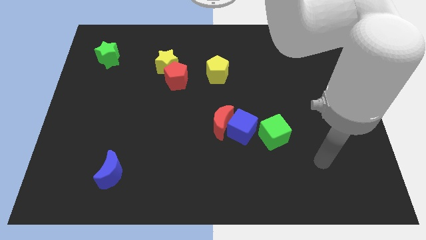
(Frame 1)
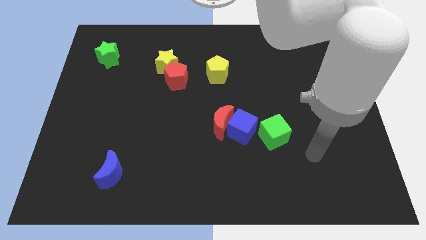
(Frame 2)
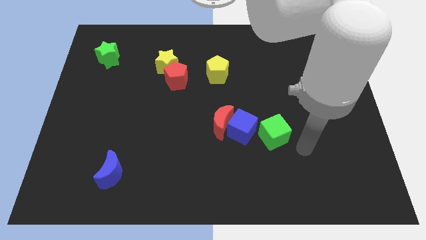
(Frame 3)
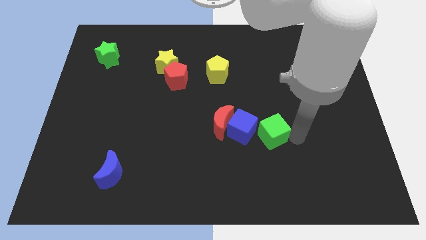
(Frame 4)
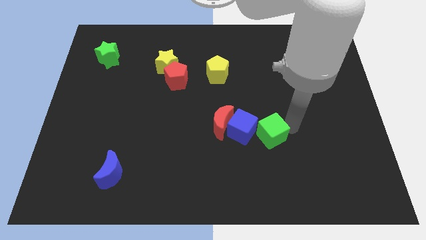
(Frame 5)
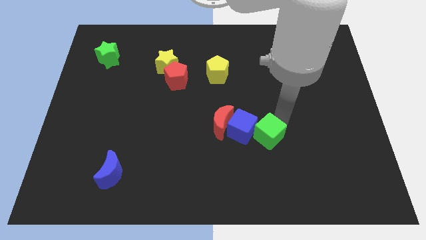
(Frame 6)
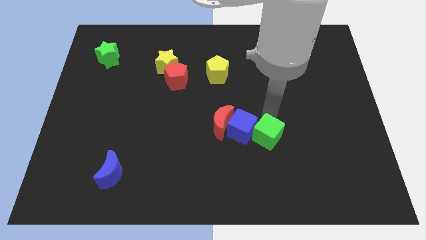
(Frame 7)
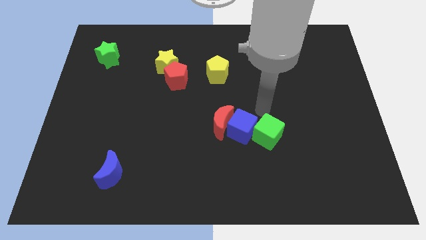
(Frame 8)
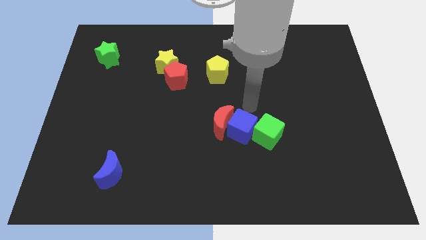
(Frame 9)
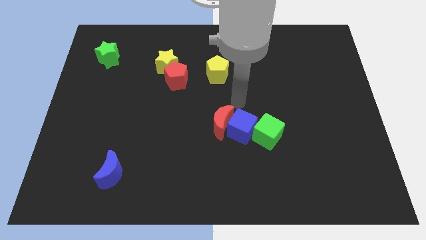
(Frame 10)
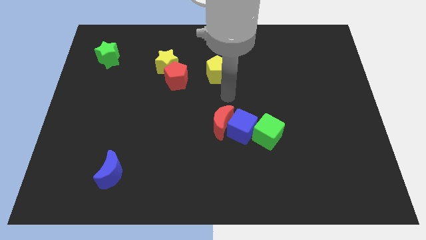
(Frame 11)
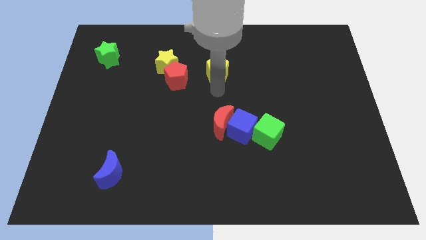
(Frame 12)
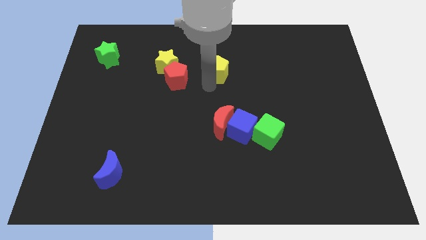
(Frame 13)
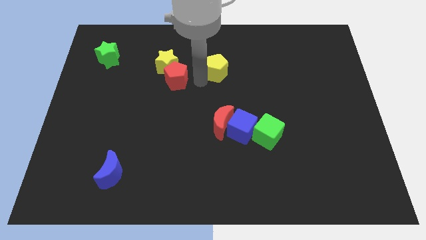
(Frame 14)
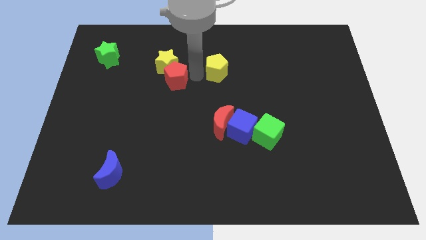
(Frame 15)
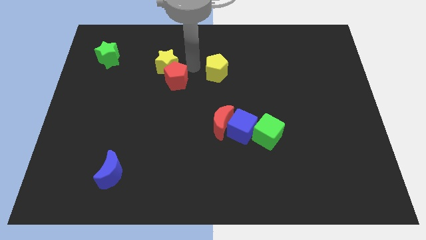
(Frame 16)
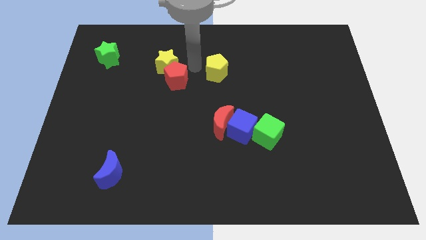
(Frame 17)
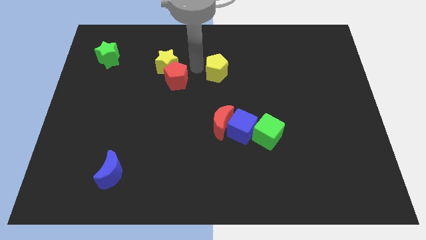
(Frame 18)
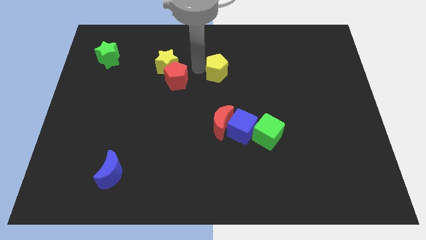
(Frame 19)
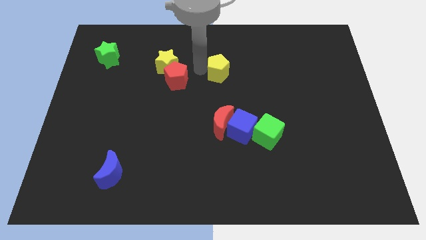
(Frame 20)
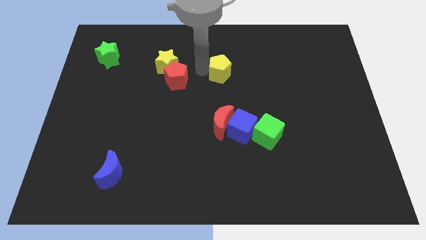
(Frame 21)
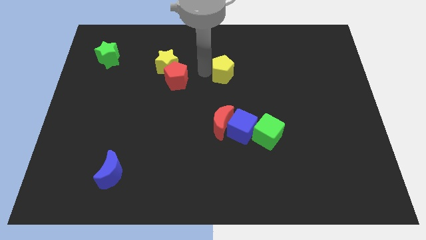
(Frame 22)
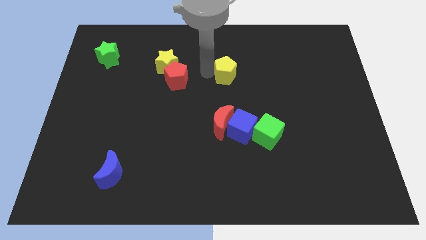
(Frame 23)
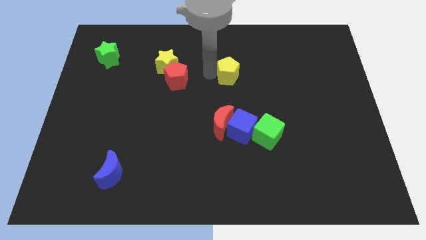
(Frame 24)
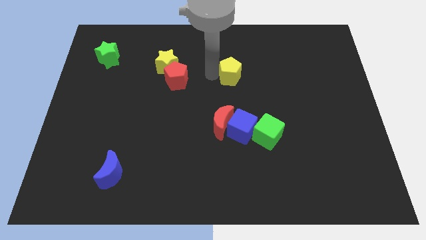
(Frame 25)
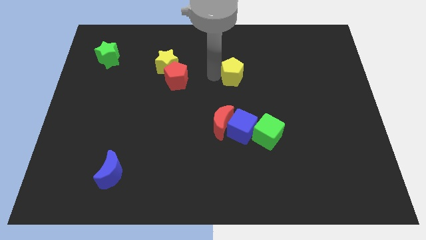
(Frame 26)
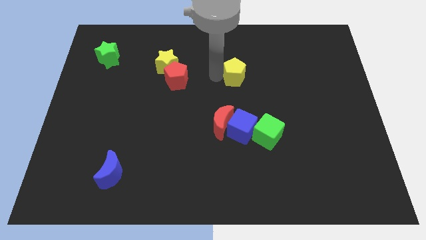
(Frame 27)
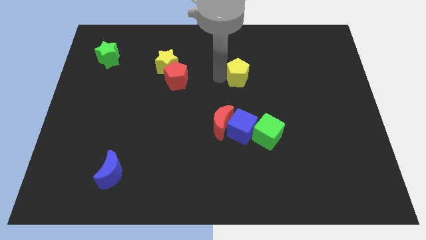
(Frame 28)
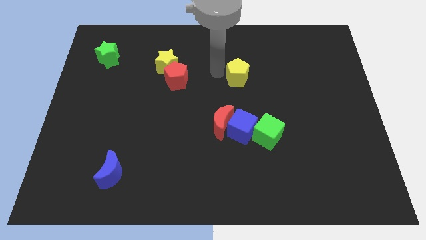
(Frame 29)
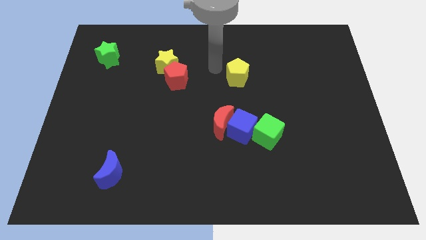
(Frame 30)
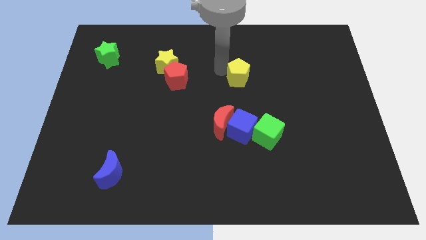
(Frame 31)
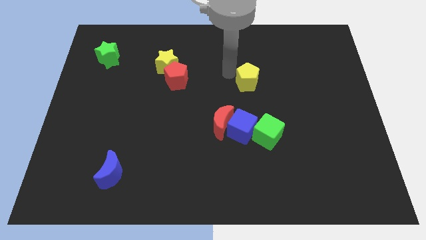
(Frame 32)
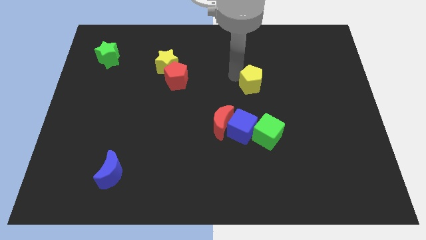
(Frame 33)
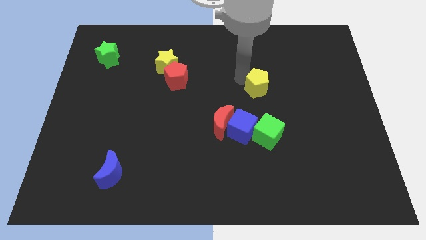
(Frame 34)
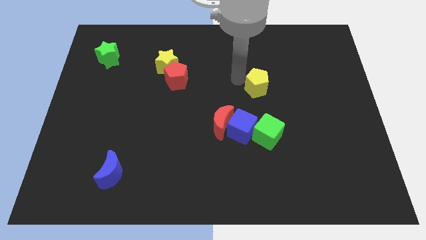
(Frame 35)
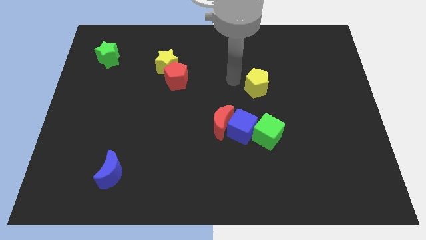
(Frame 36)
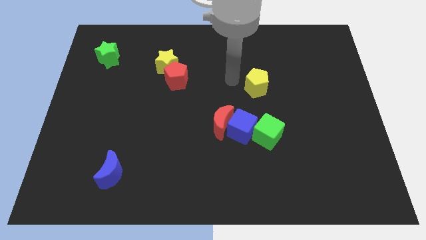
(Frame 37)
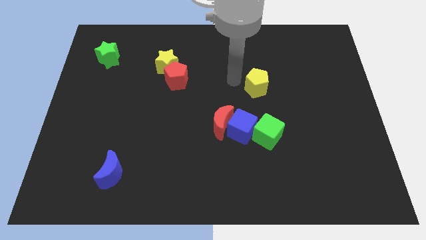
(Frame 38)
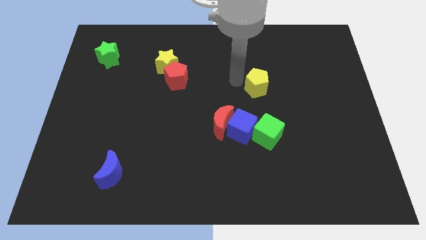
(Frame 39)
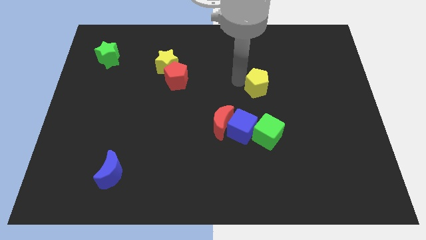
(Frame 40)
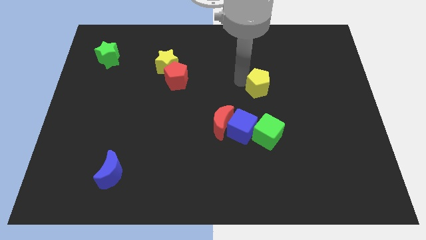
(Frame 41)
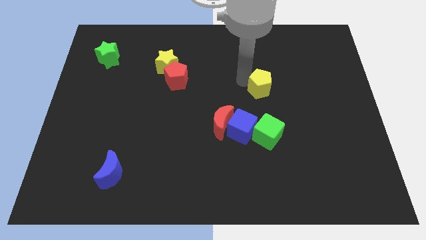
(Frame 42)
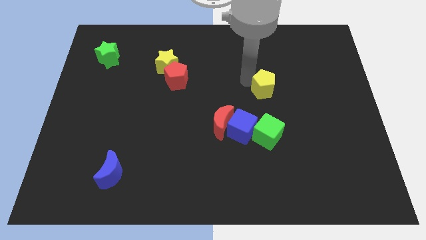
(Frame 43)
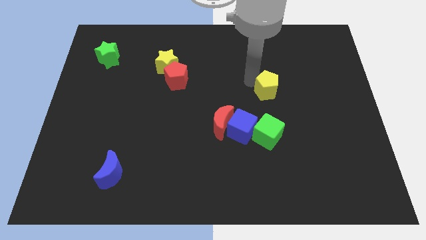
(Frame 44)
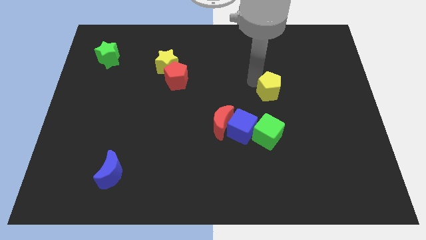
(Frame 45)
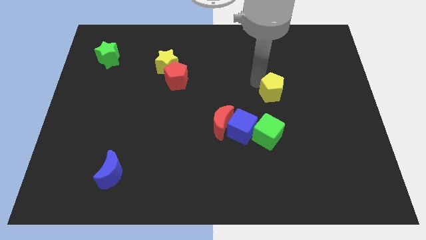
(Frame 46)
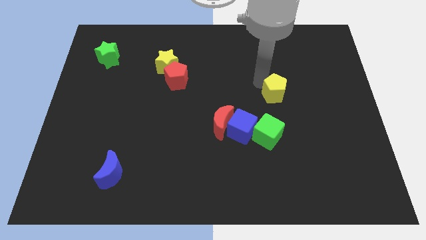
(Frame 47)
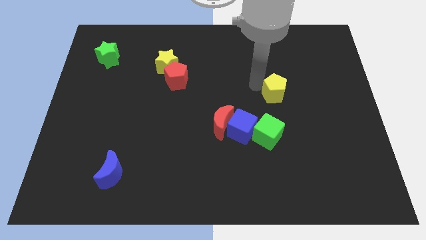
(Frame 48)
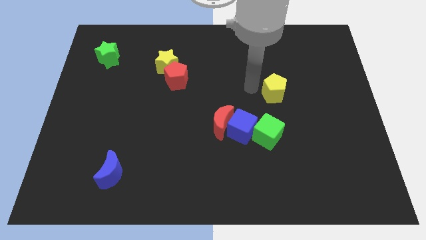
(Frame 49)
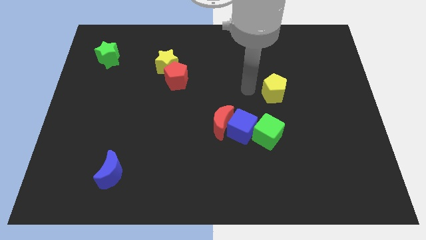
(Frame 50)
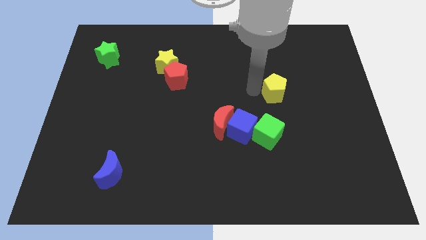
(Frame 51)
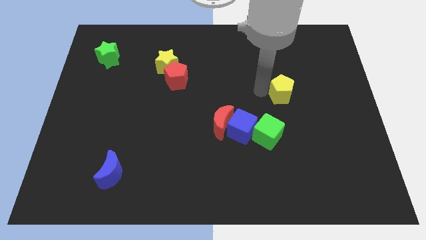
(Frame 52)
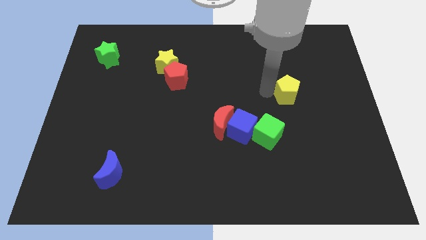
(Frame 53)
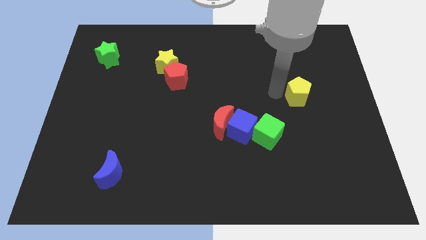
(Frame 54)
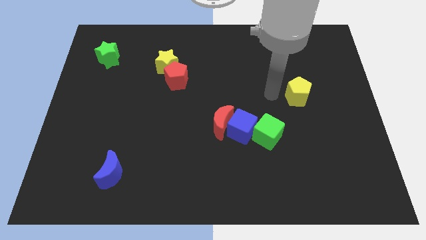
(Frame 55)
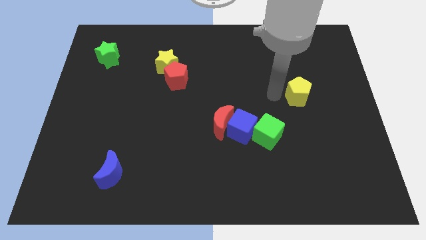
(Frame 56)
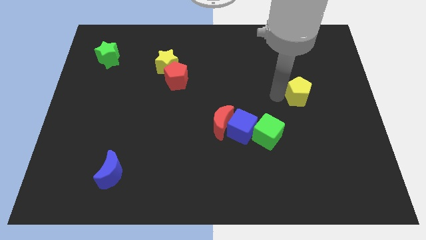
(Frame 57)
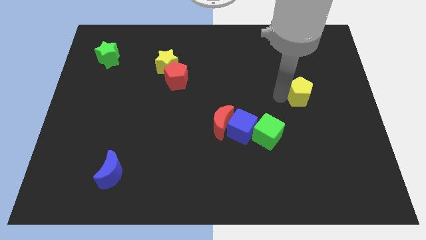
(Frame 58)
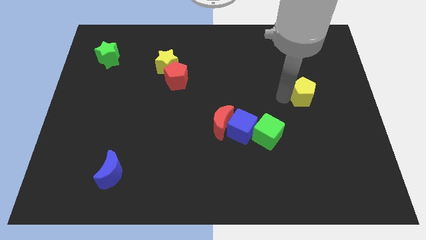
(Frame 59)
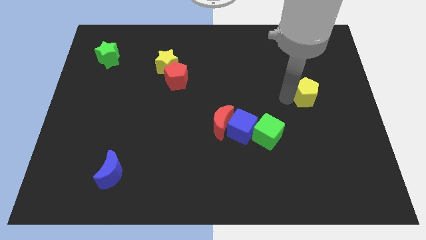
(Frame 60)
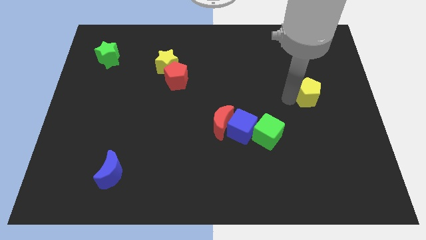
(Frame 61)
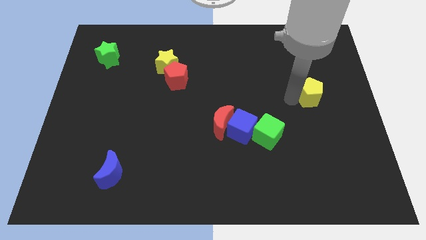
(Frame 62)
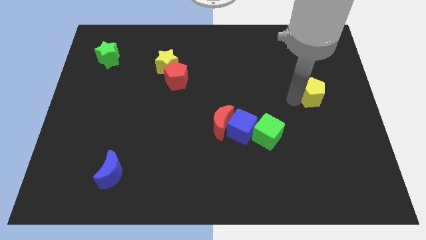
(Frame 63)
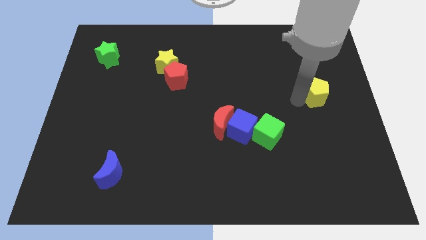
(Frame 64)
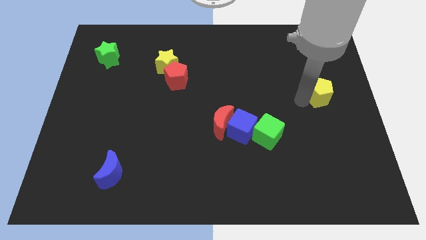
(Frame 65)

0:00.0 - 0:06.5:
put the yellow pentagon to the right side
